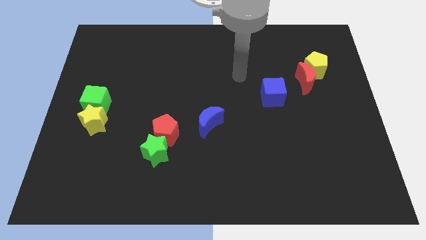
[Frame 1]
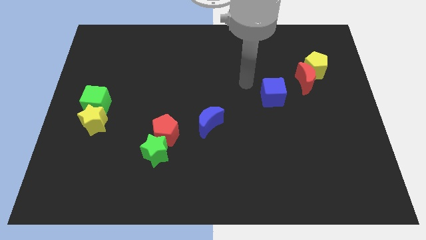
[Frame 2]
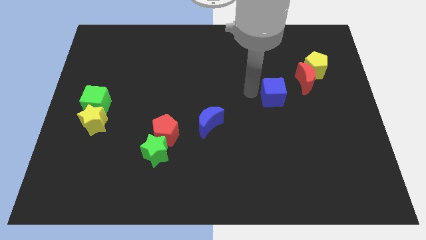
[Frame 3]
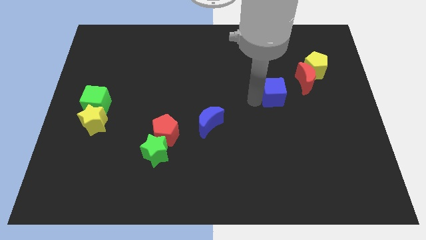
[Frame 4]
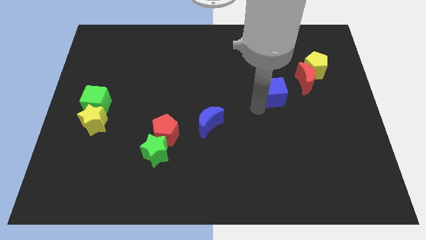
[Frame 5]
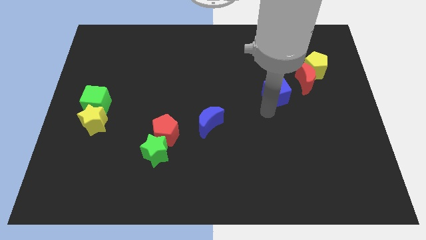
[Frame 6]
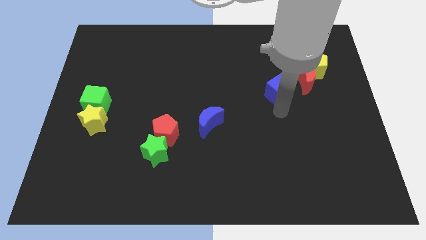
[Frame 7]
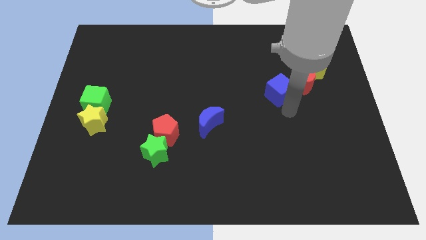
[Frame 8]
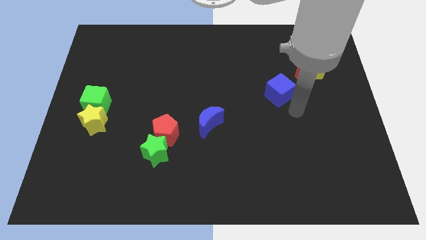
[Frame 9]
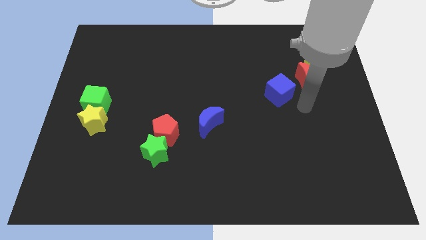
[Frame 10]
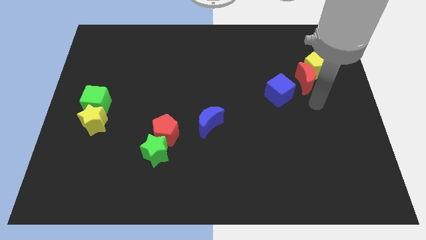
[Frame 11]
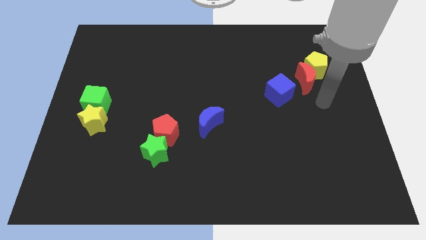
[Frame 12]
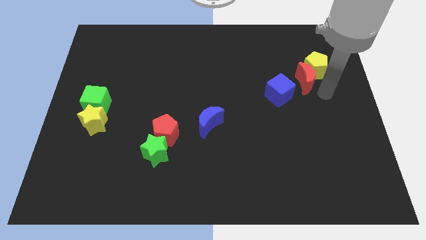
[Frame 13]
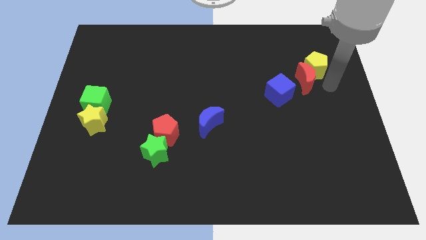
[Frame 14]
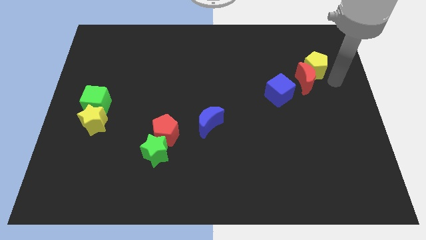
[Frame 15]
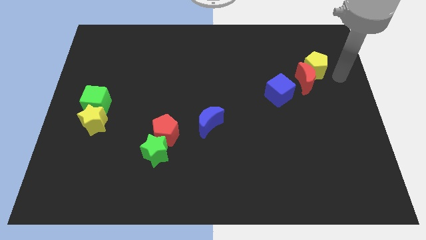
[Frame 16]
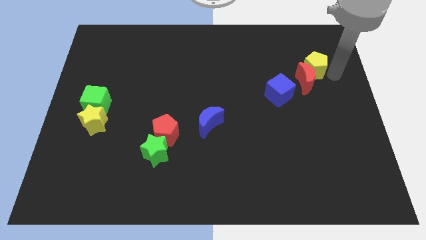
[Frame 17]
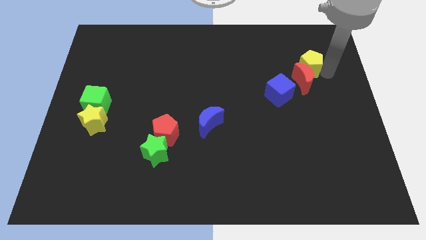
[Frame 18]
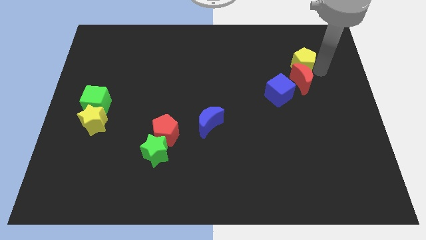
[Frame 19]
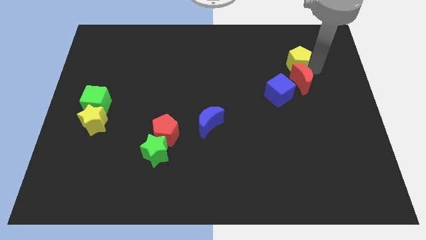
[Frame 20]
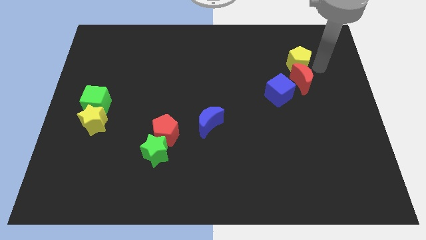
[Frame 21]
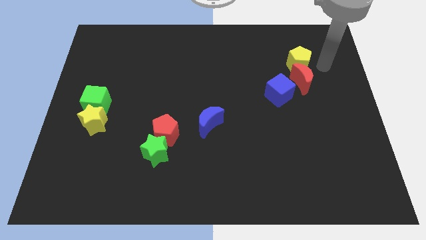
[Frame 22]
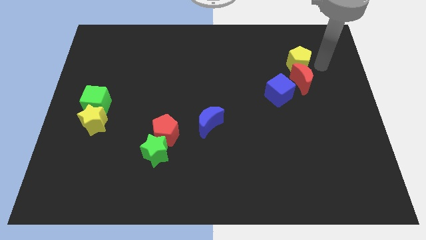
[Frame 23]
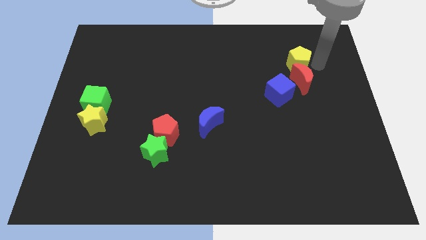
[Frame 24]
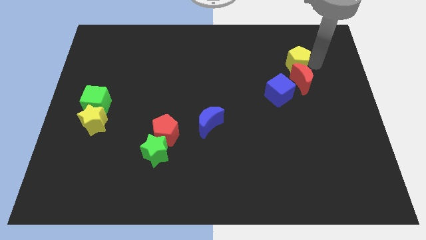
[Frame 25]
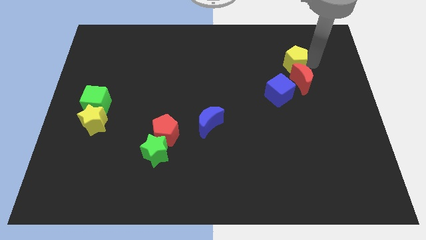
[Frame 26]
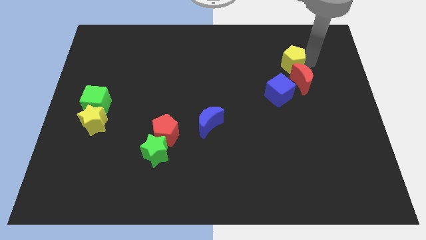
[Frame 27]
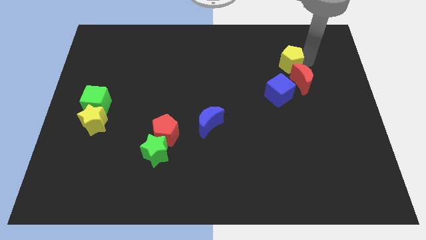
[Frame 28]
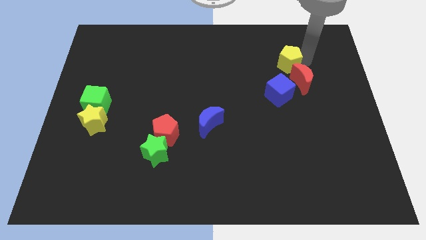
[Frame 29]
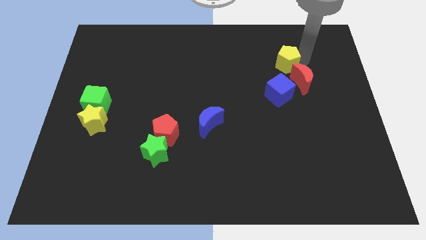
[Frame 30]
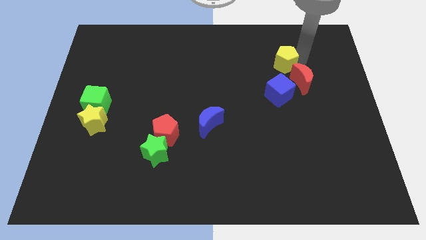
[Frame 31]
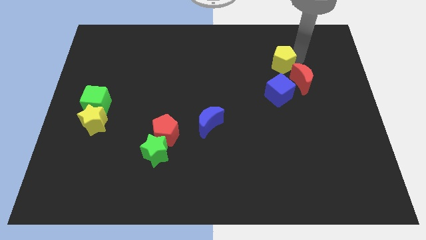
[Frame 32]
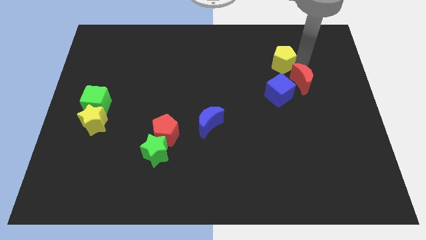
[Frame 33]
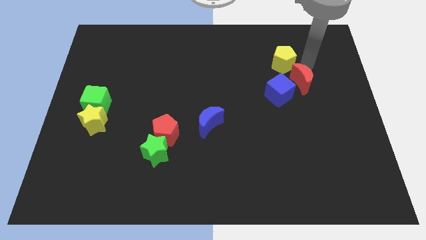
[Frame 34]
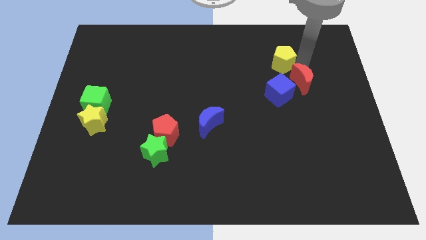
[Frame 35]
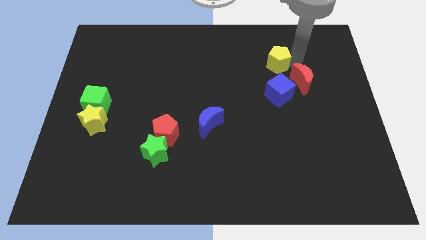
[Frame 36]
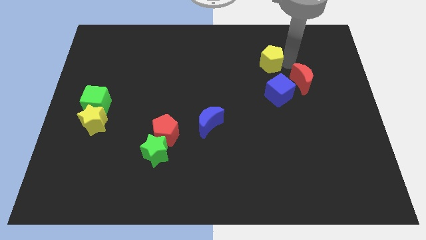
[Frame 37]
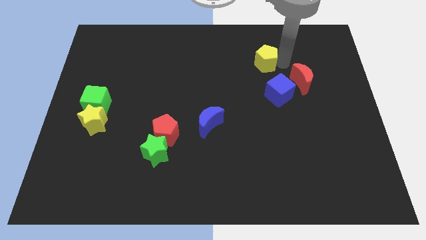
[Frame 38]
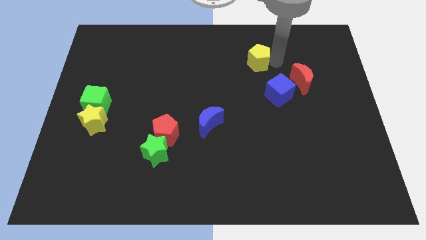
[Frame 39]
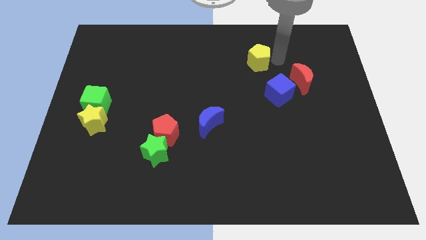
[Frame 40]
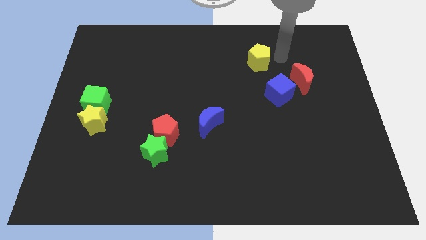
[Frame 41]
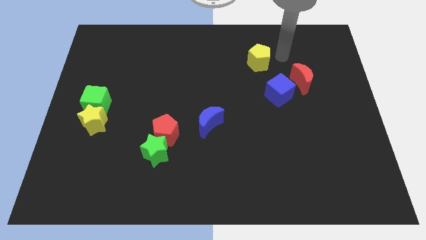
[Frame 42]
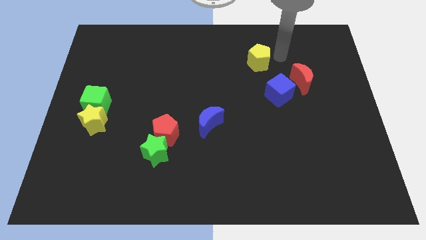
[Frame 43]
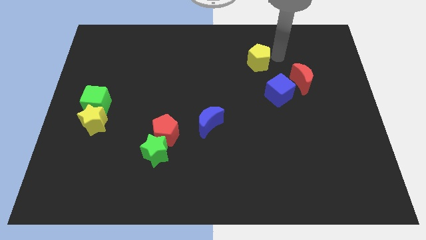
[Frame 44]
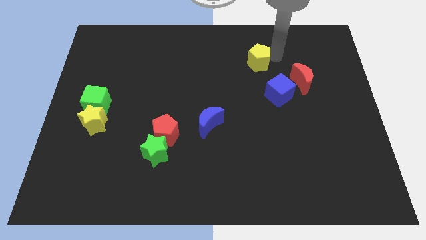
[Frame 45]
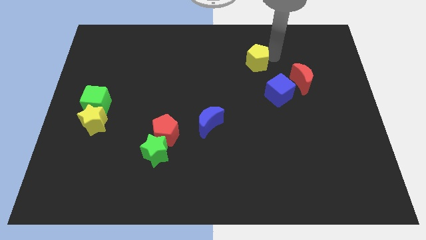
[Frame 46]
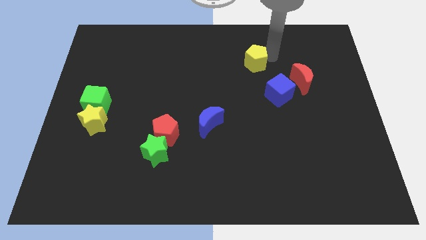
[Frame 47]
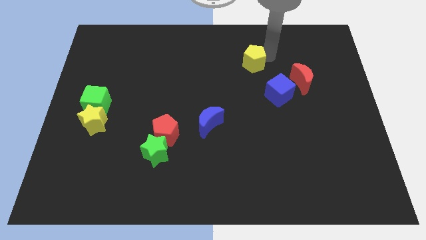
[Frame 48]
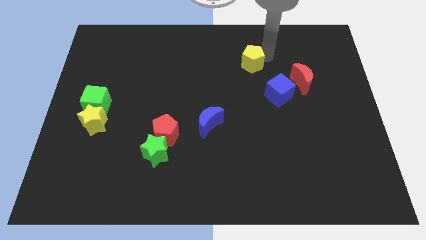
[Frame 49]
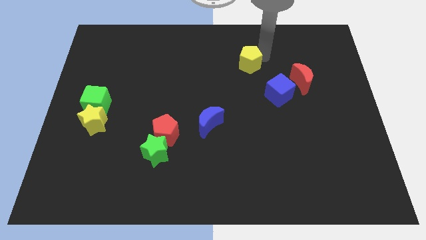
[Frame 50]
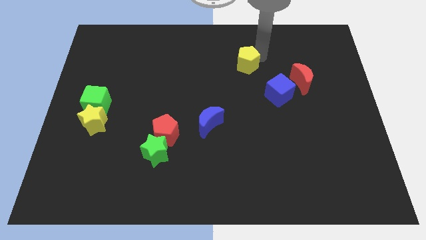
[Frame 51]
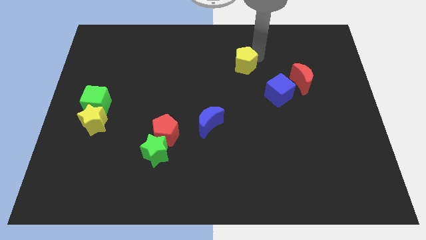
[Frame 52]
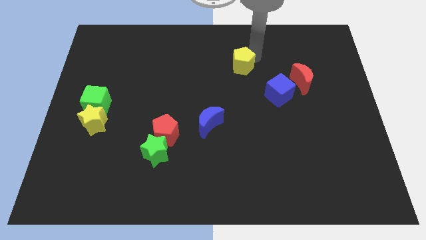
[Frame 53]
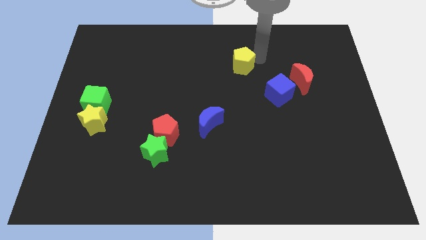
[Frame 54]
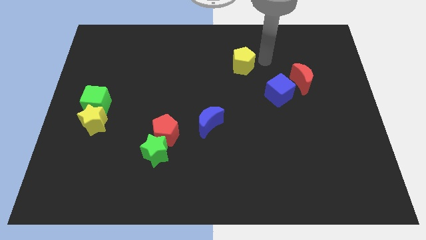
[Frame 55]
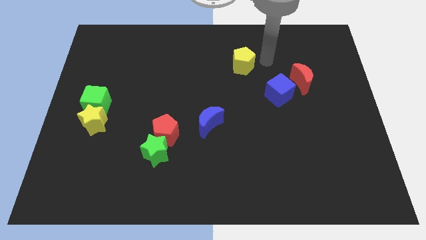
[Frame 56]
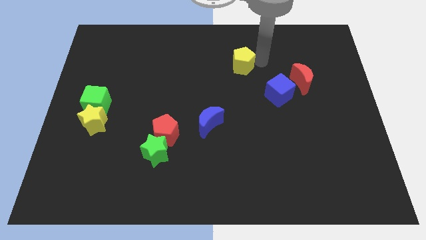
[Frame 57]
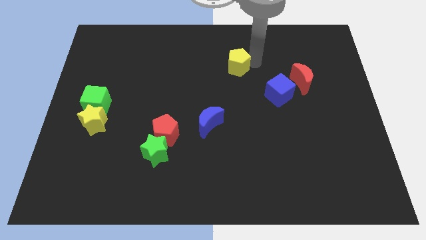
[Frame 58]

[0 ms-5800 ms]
move the yellow pentagon to the left

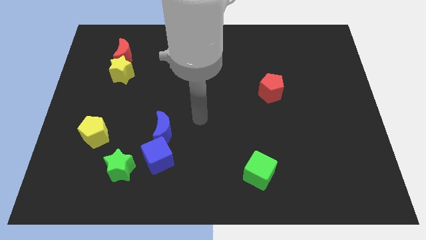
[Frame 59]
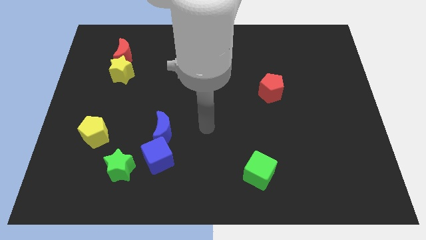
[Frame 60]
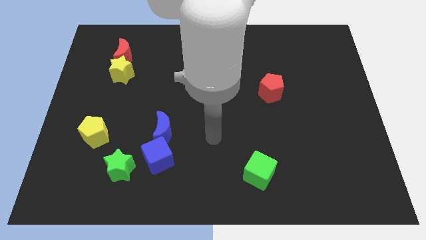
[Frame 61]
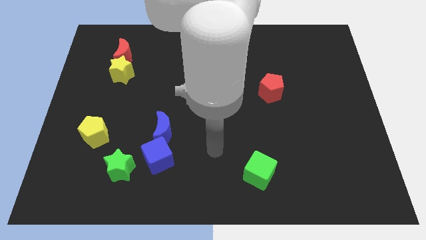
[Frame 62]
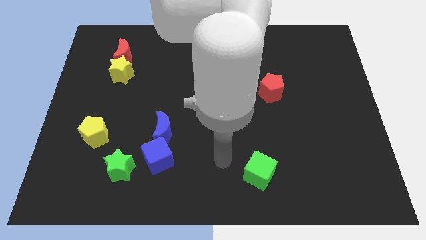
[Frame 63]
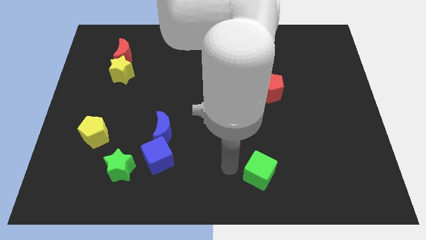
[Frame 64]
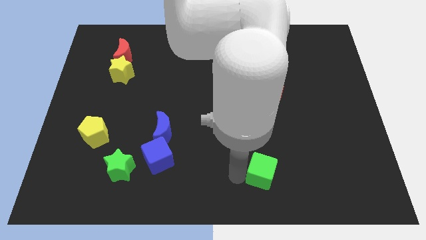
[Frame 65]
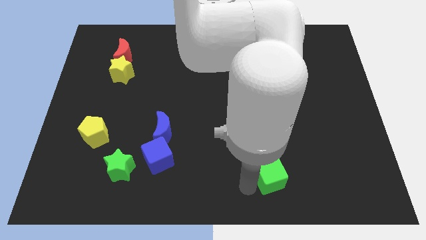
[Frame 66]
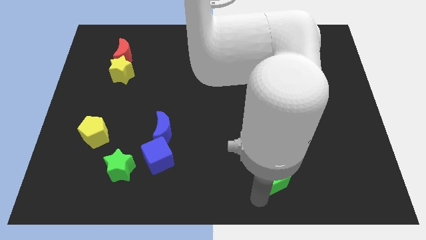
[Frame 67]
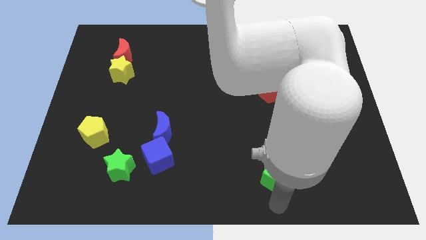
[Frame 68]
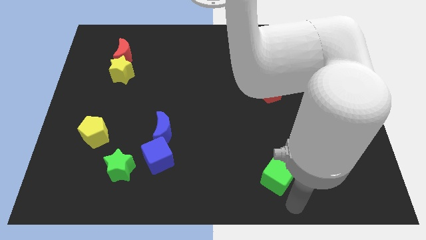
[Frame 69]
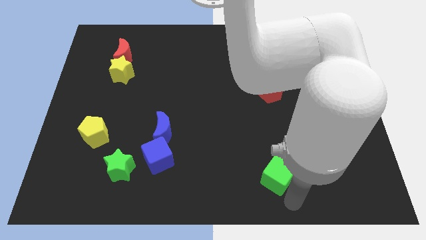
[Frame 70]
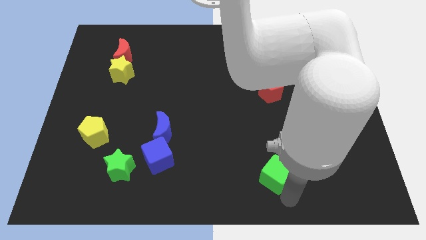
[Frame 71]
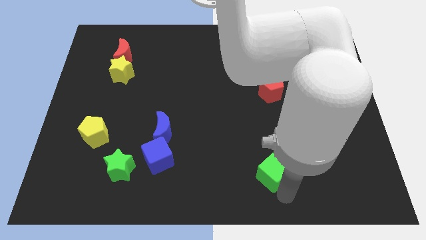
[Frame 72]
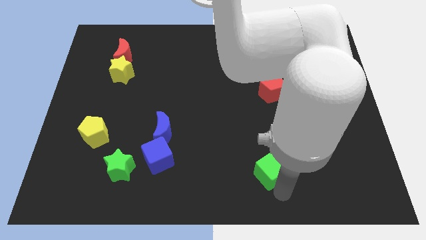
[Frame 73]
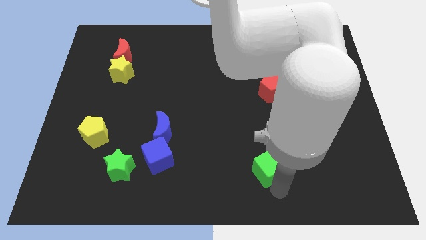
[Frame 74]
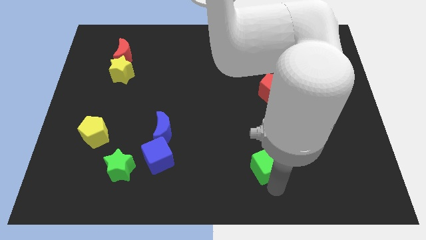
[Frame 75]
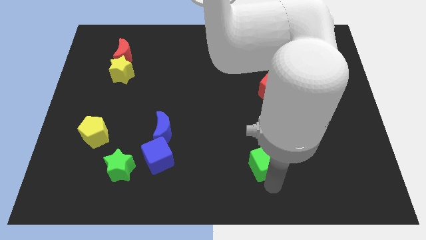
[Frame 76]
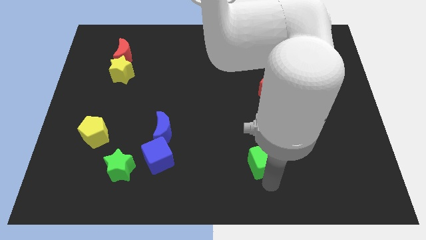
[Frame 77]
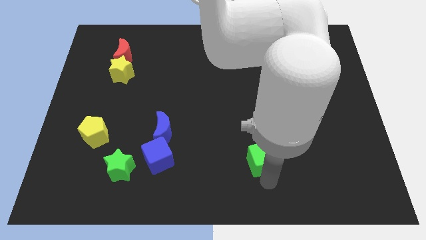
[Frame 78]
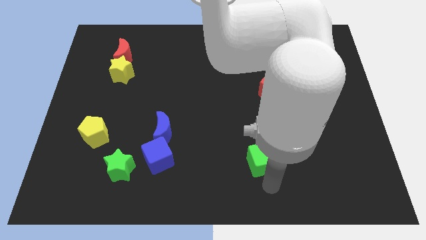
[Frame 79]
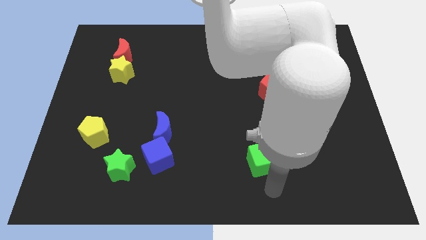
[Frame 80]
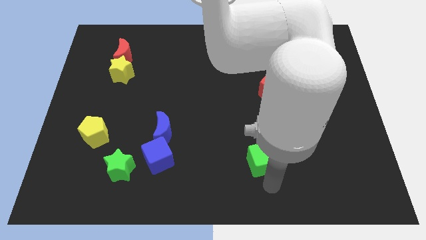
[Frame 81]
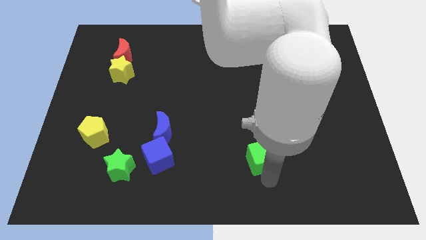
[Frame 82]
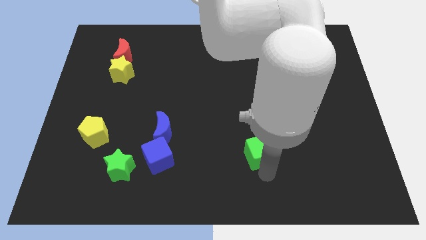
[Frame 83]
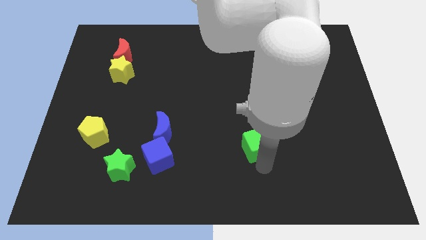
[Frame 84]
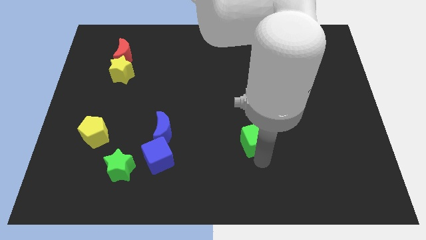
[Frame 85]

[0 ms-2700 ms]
slightly slide the green cube up
